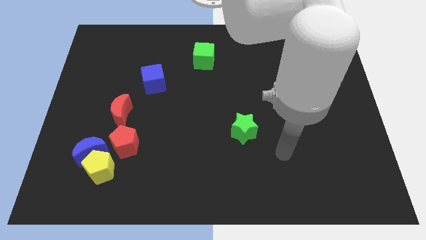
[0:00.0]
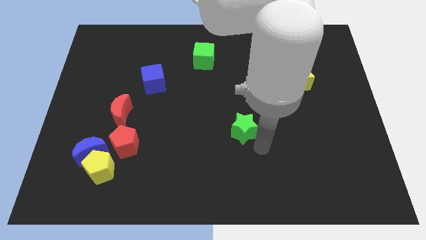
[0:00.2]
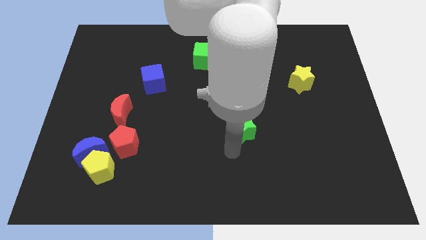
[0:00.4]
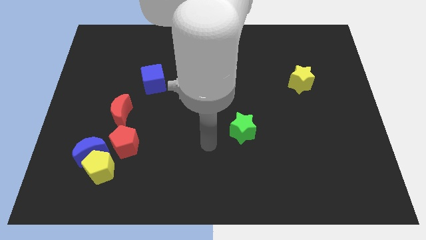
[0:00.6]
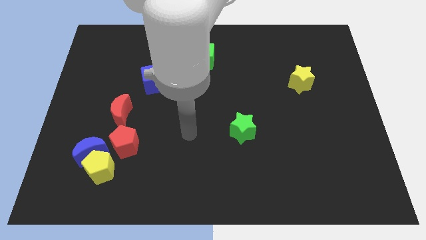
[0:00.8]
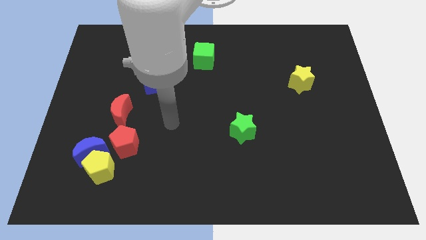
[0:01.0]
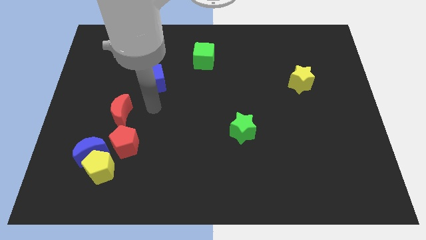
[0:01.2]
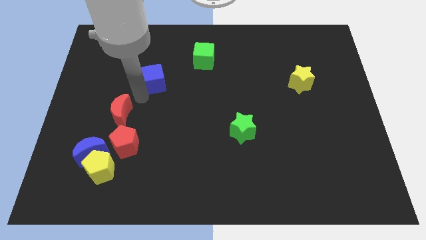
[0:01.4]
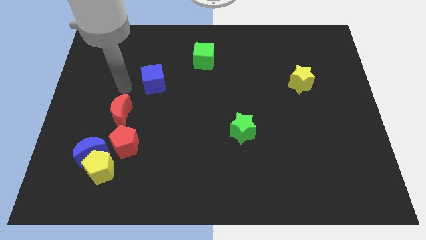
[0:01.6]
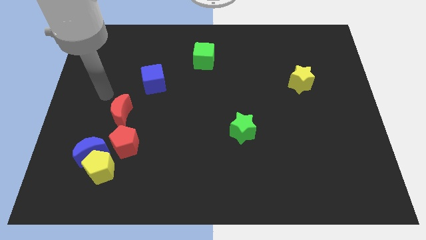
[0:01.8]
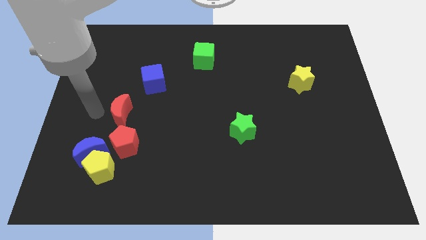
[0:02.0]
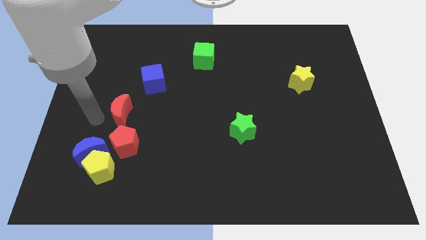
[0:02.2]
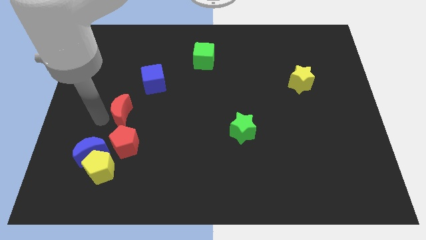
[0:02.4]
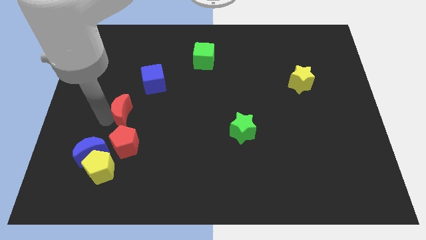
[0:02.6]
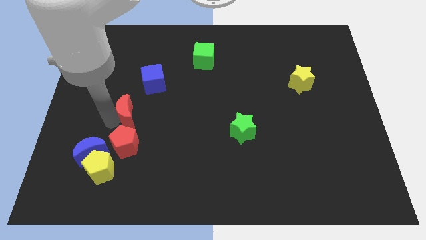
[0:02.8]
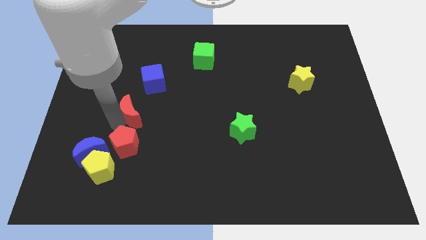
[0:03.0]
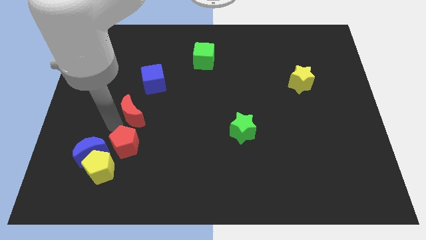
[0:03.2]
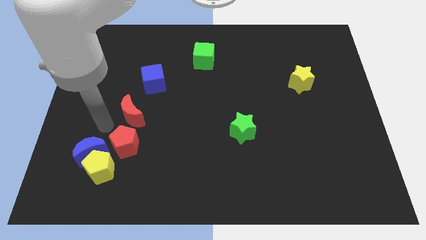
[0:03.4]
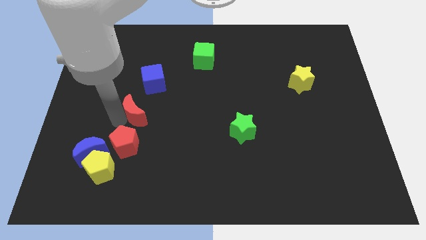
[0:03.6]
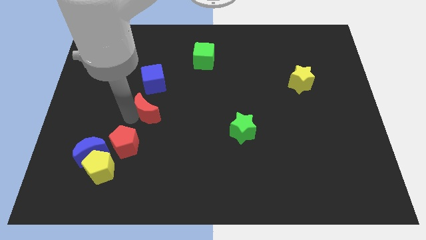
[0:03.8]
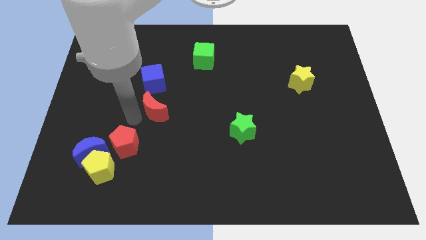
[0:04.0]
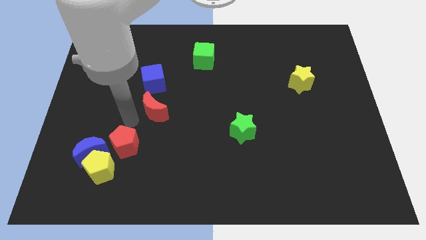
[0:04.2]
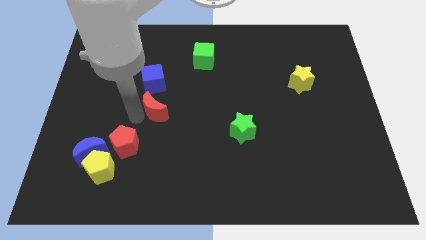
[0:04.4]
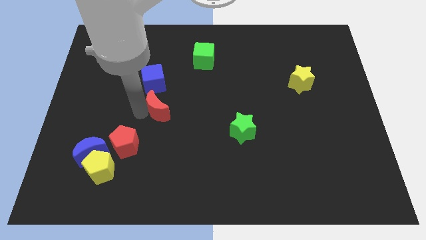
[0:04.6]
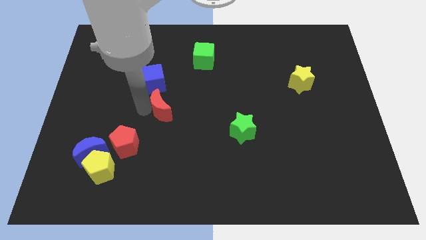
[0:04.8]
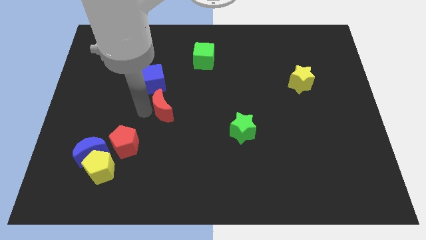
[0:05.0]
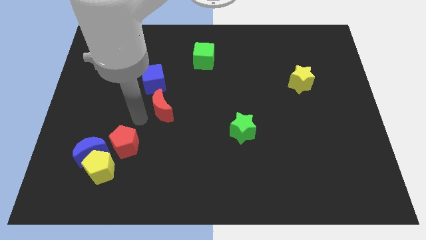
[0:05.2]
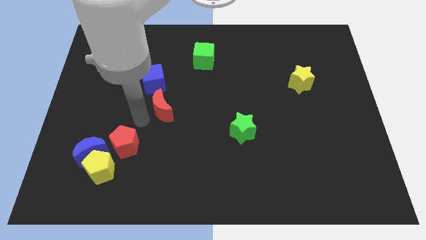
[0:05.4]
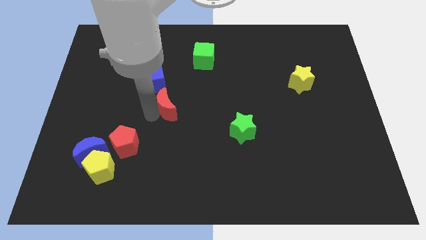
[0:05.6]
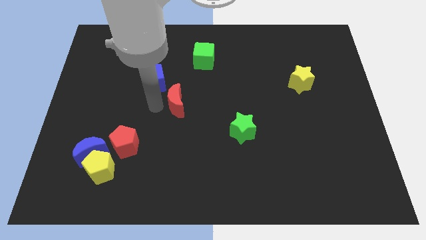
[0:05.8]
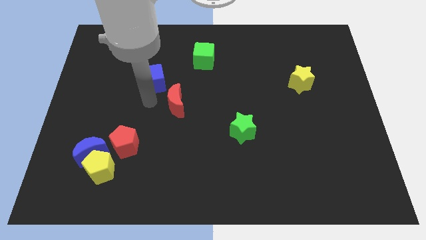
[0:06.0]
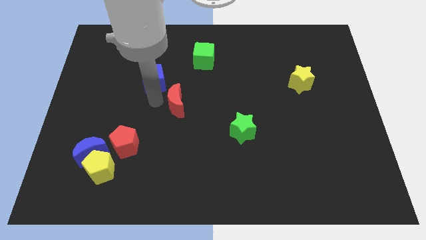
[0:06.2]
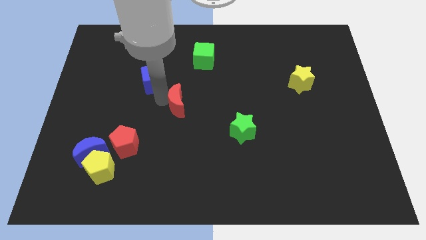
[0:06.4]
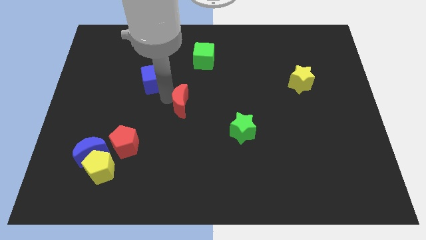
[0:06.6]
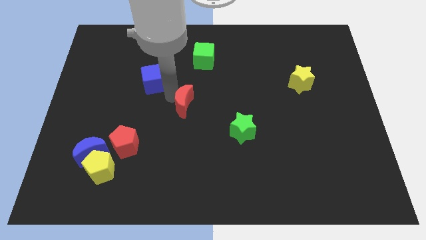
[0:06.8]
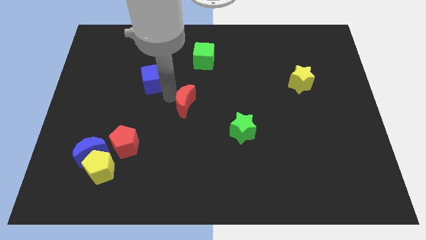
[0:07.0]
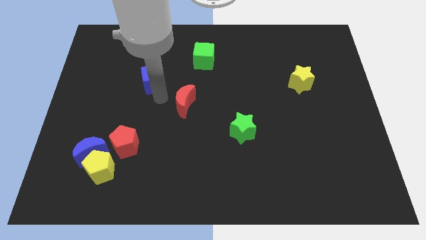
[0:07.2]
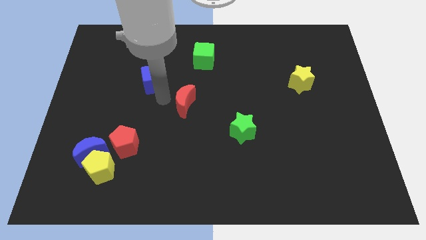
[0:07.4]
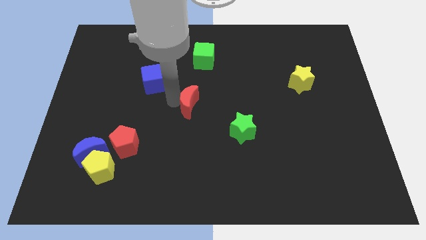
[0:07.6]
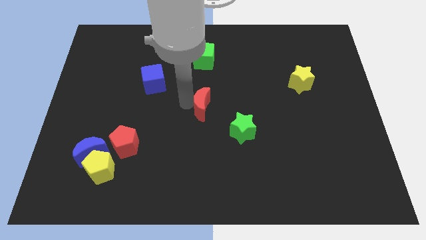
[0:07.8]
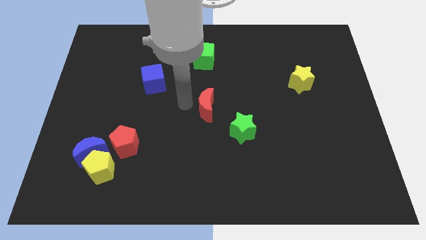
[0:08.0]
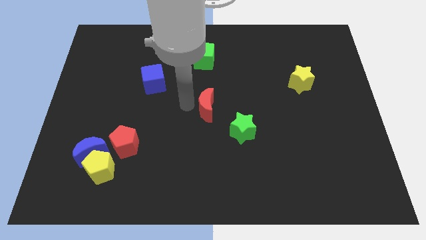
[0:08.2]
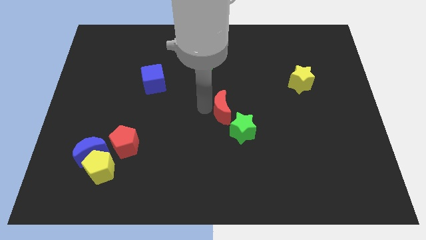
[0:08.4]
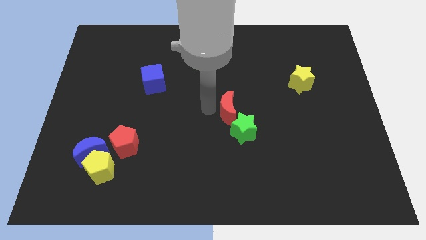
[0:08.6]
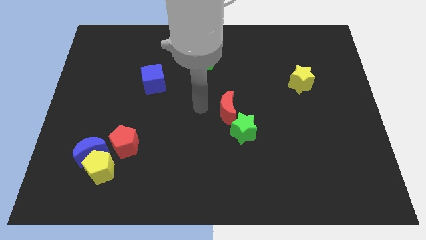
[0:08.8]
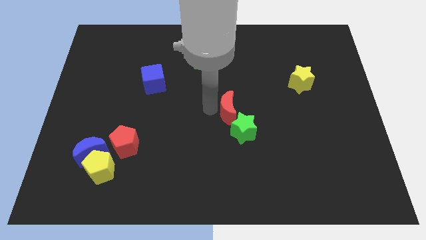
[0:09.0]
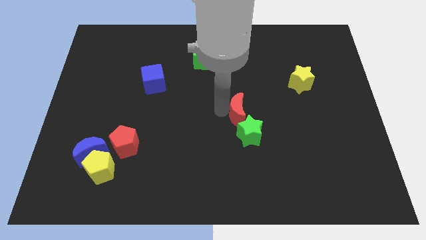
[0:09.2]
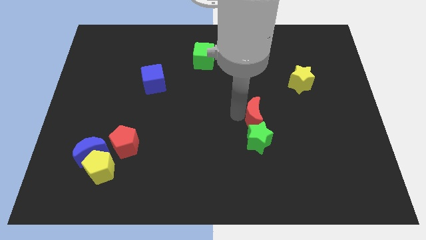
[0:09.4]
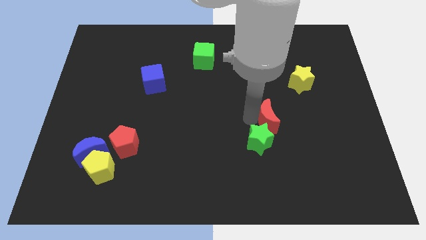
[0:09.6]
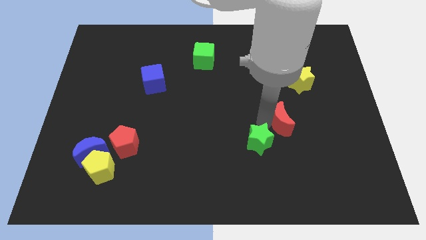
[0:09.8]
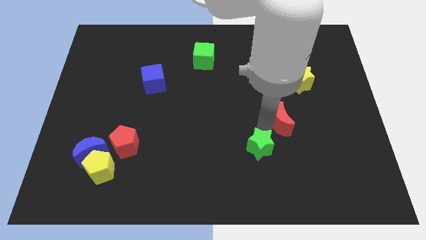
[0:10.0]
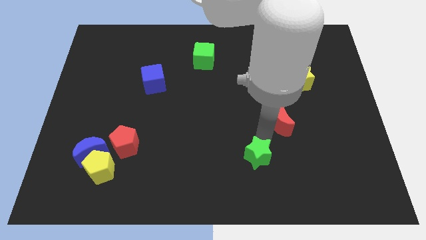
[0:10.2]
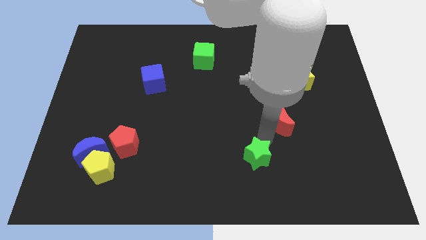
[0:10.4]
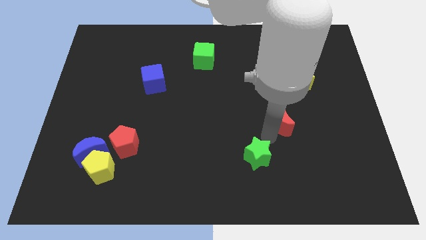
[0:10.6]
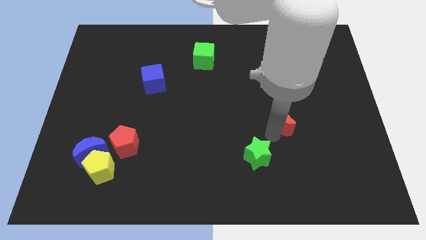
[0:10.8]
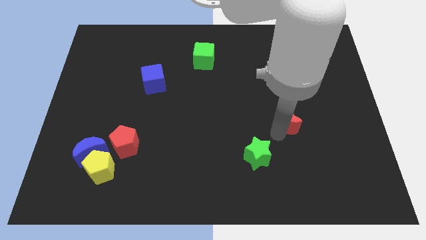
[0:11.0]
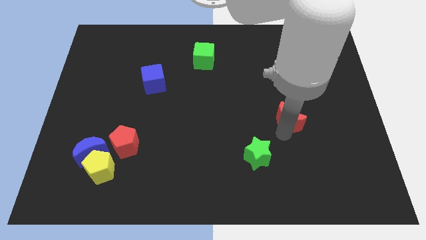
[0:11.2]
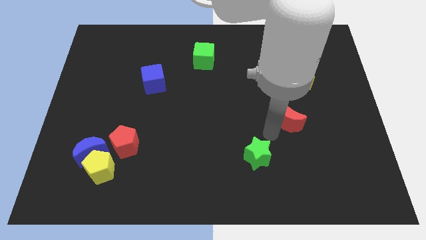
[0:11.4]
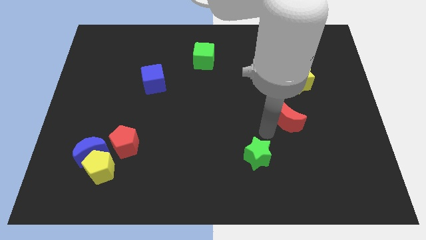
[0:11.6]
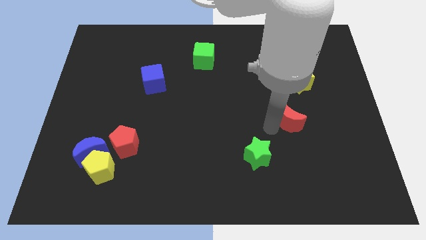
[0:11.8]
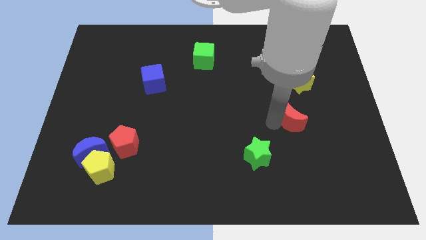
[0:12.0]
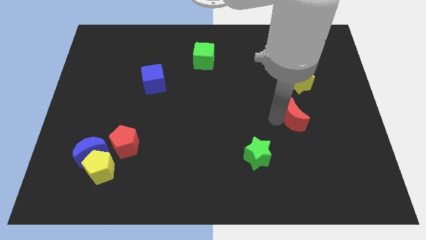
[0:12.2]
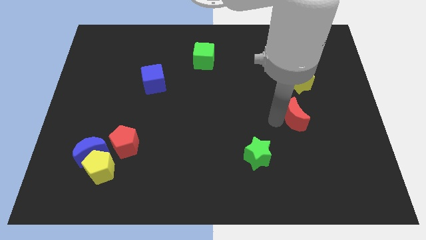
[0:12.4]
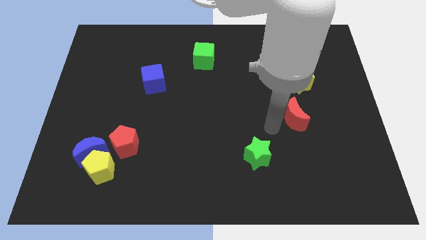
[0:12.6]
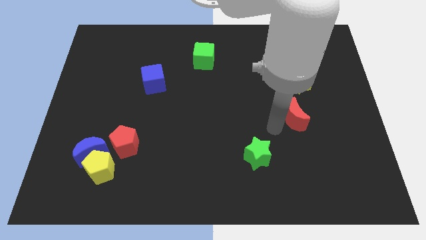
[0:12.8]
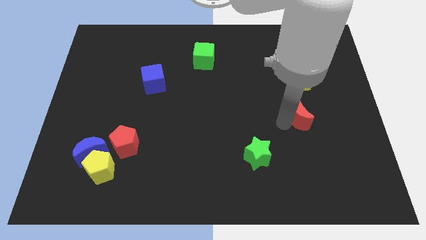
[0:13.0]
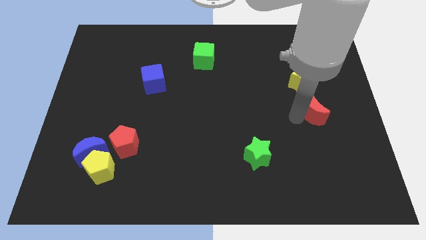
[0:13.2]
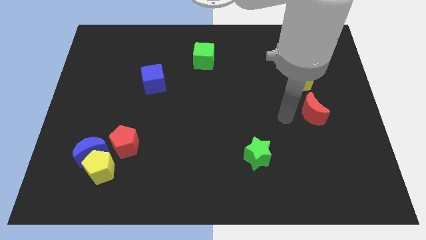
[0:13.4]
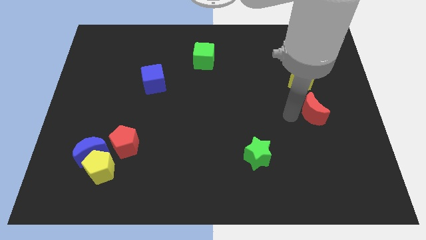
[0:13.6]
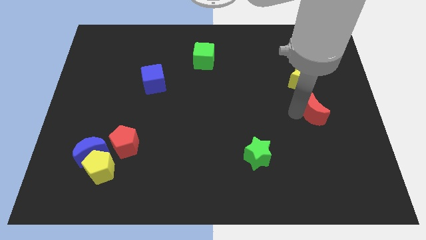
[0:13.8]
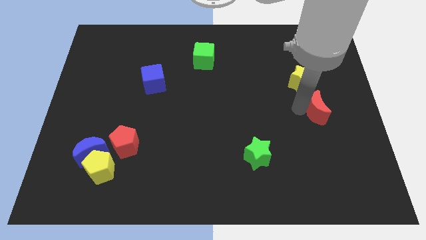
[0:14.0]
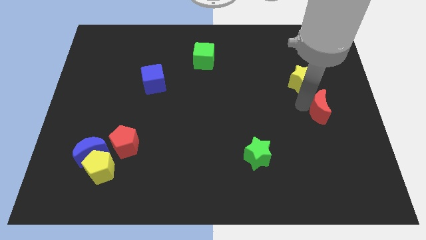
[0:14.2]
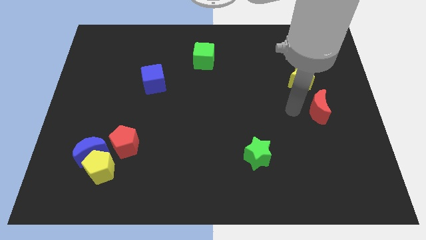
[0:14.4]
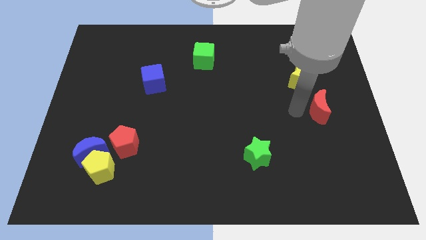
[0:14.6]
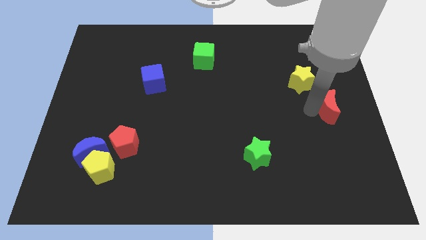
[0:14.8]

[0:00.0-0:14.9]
push the red moon to the right side
